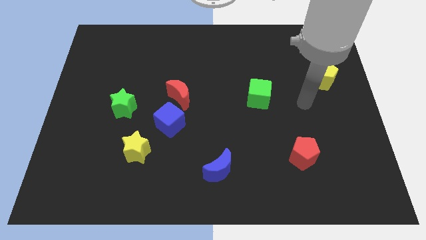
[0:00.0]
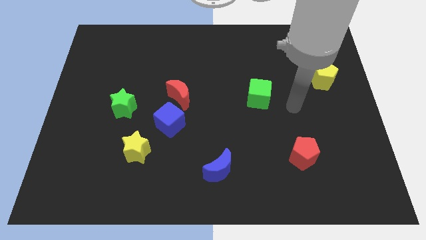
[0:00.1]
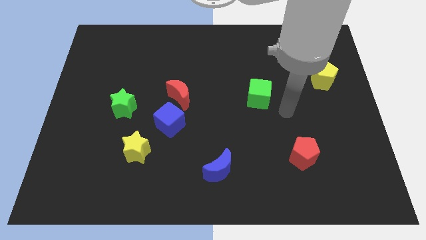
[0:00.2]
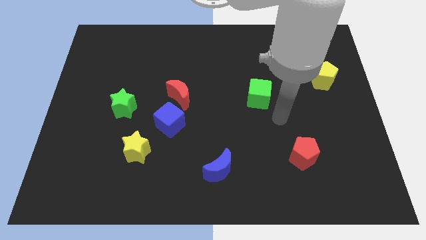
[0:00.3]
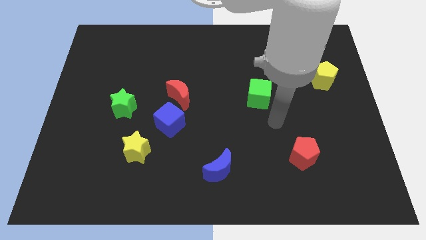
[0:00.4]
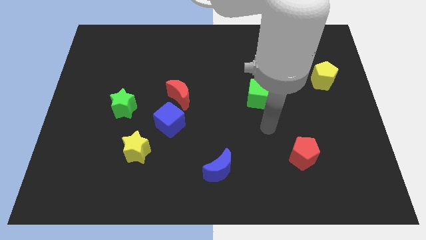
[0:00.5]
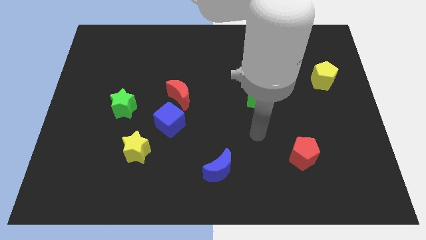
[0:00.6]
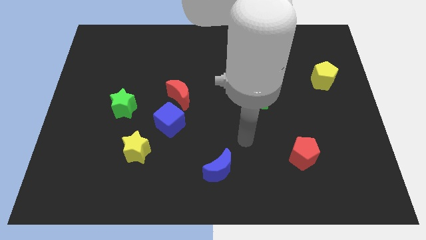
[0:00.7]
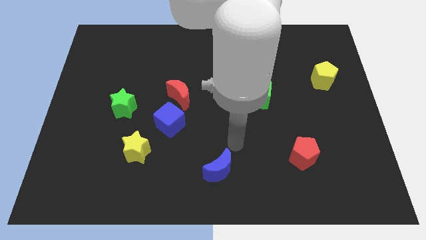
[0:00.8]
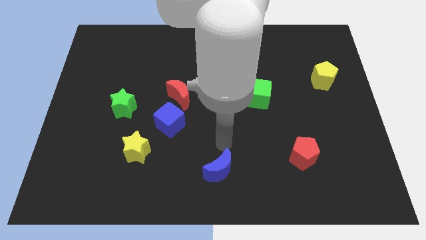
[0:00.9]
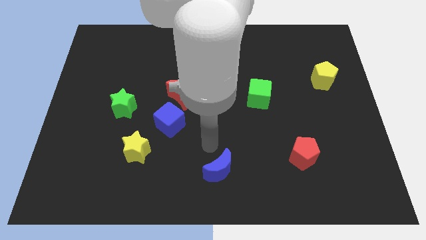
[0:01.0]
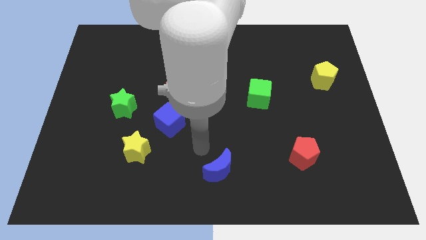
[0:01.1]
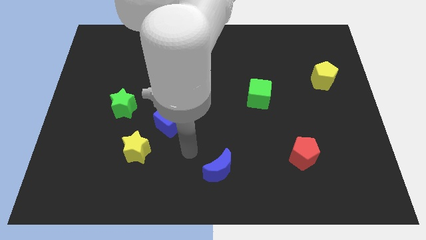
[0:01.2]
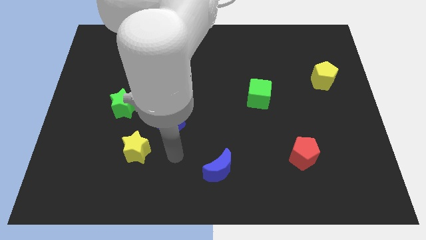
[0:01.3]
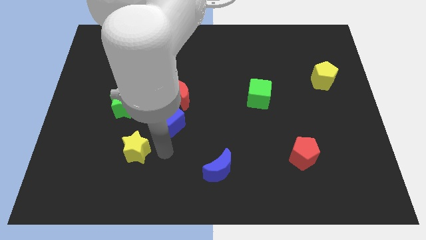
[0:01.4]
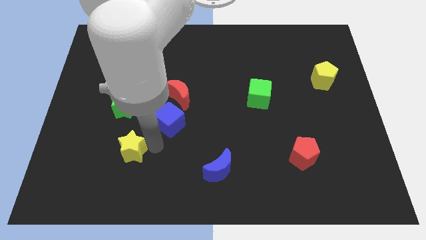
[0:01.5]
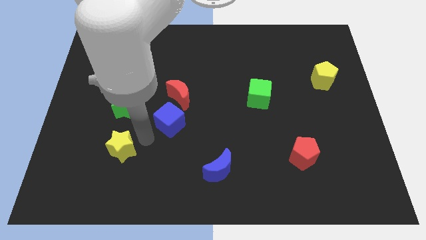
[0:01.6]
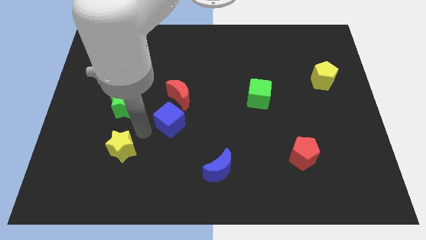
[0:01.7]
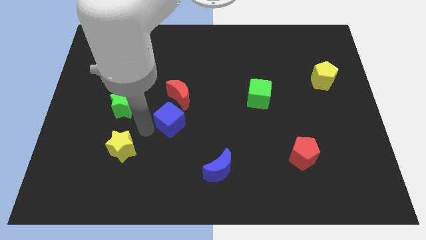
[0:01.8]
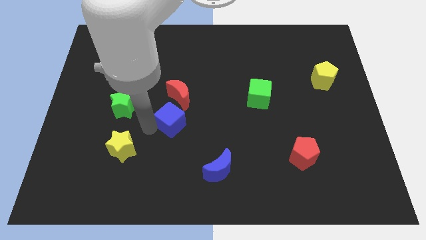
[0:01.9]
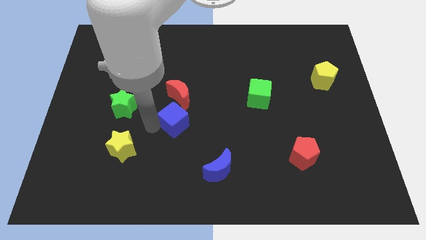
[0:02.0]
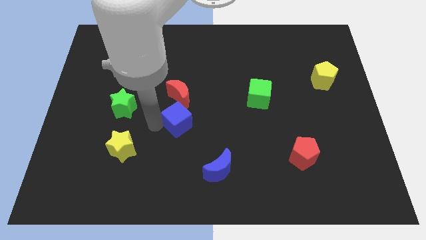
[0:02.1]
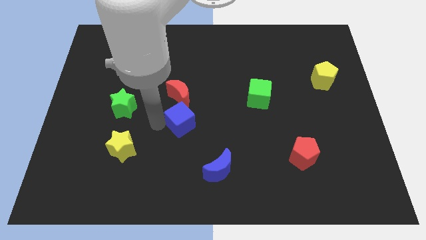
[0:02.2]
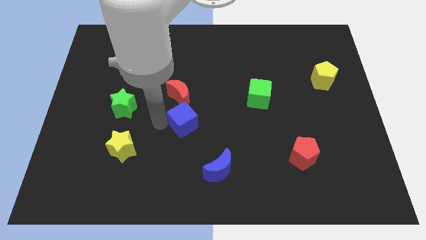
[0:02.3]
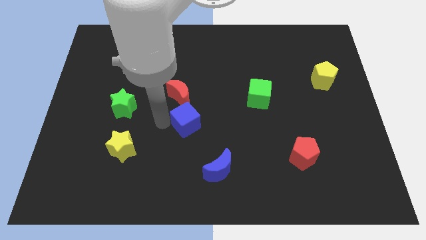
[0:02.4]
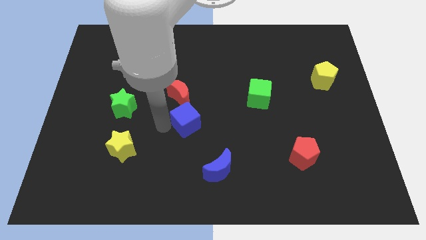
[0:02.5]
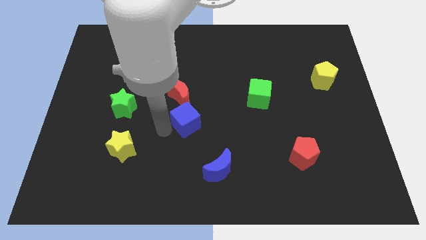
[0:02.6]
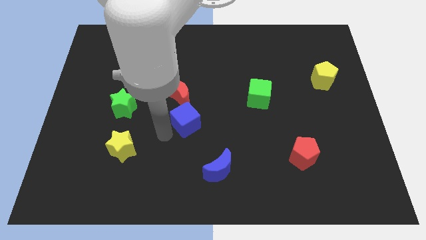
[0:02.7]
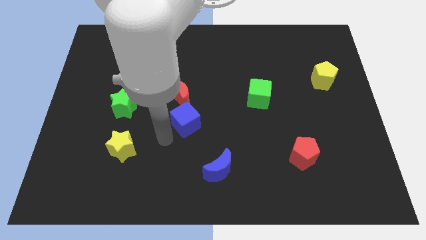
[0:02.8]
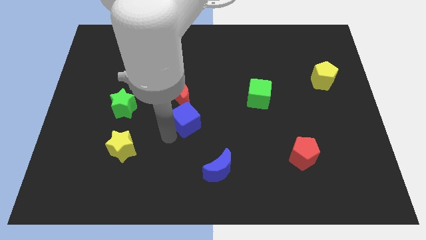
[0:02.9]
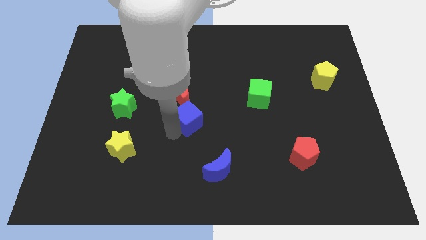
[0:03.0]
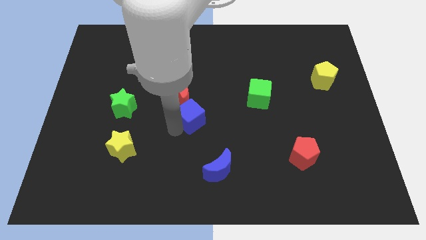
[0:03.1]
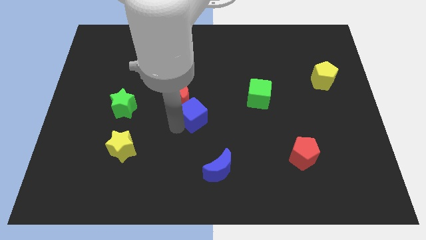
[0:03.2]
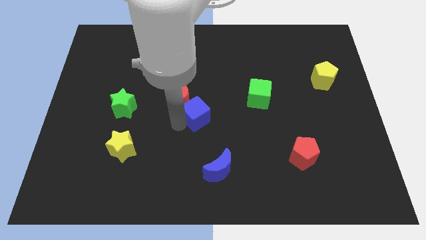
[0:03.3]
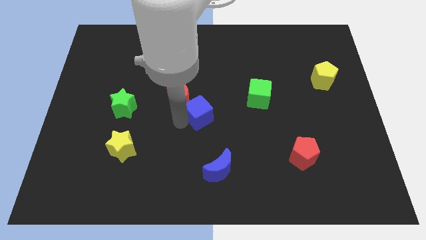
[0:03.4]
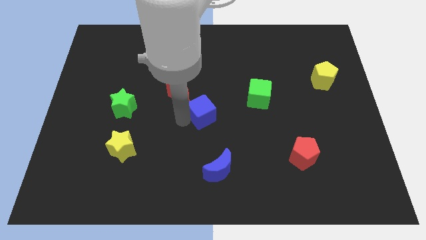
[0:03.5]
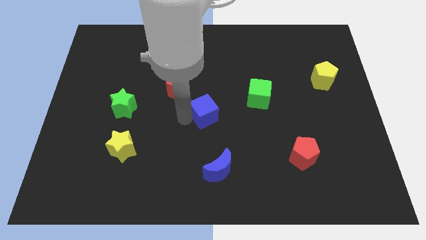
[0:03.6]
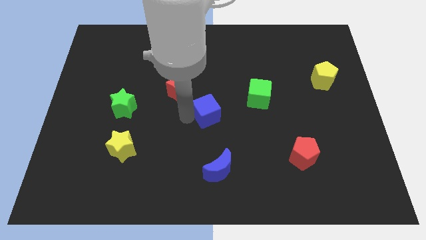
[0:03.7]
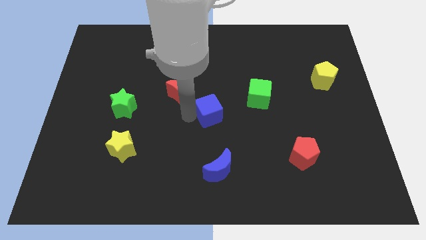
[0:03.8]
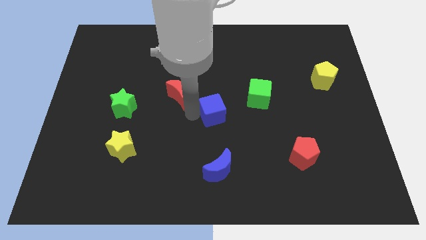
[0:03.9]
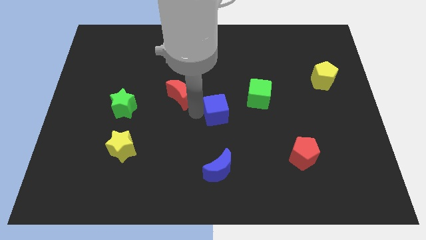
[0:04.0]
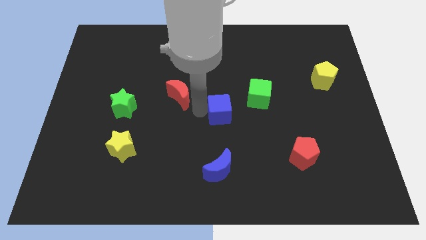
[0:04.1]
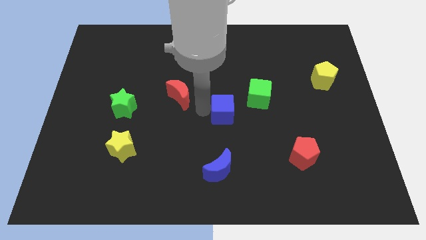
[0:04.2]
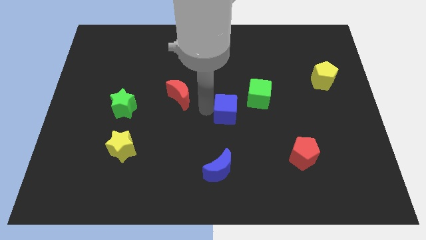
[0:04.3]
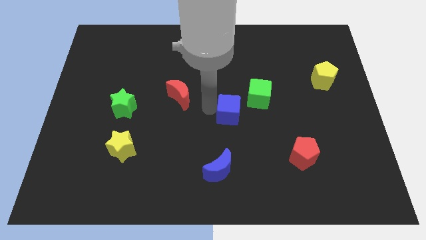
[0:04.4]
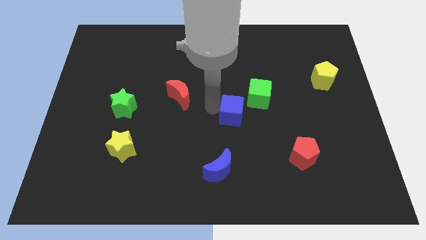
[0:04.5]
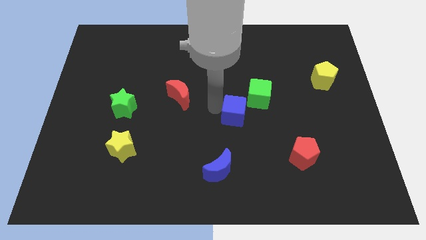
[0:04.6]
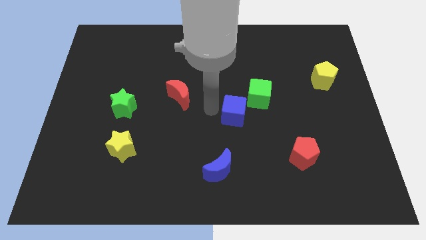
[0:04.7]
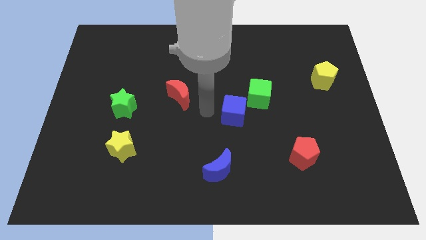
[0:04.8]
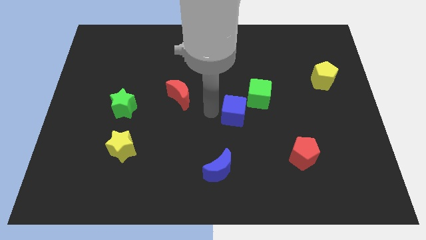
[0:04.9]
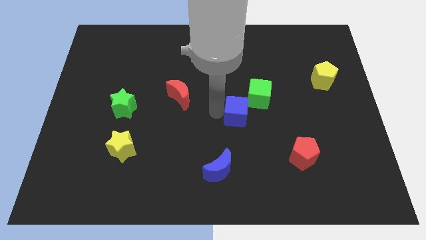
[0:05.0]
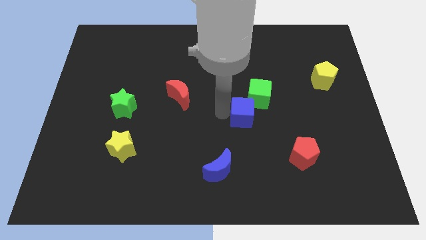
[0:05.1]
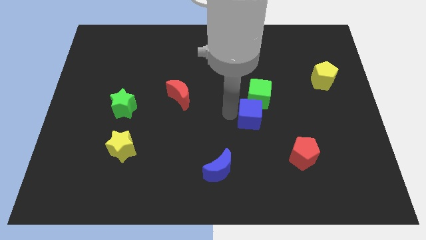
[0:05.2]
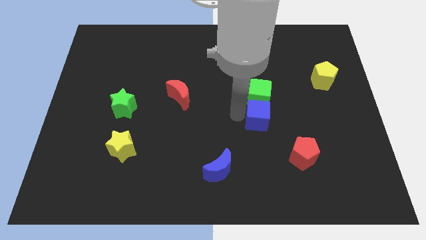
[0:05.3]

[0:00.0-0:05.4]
move the blue cube right

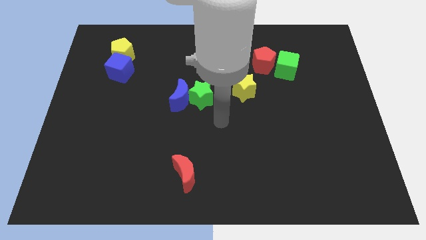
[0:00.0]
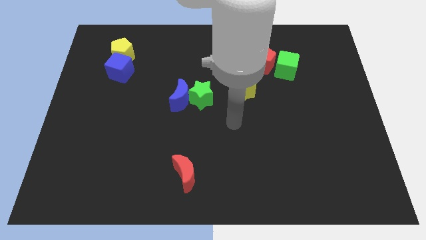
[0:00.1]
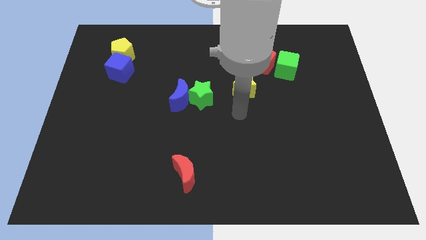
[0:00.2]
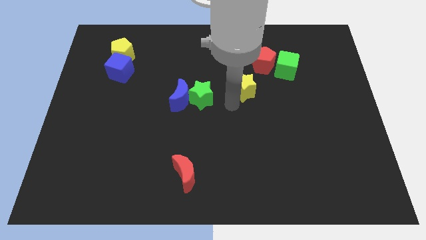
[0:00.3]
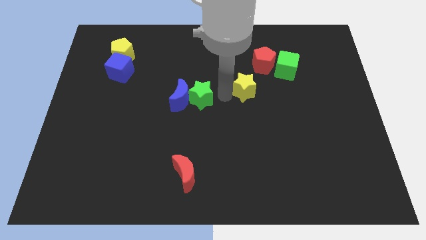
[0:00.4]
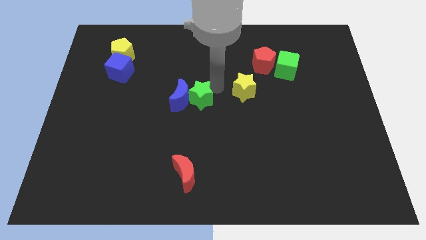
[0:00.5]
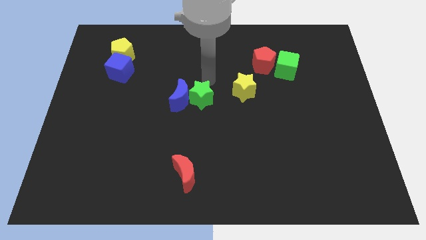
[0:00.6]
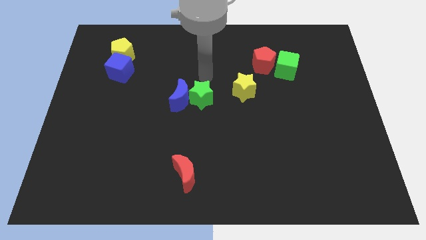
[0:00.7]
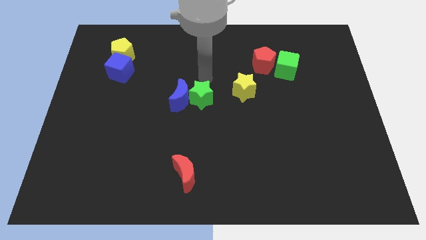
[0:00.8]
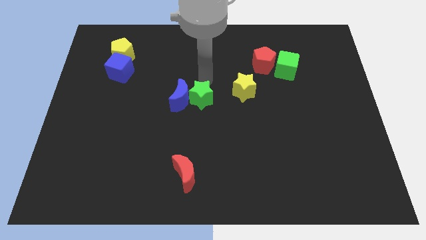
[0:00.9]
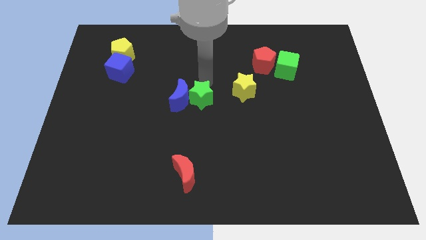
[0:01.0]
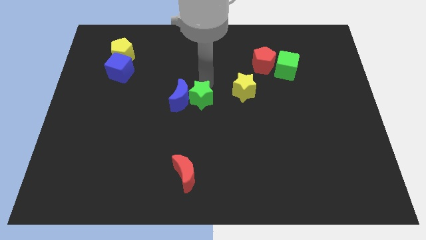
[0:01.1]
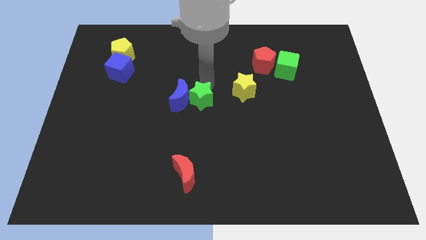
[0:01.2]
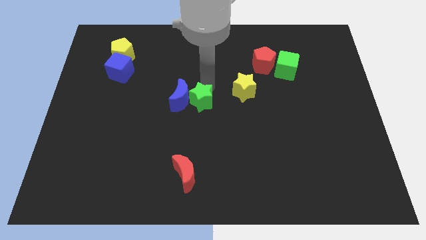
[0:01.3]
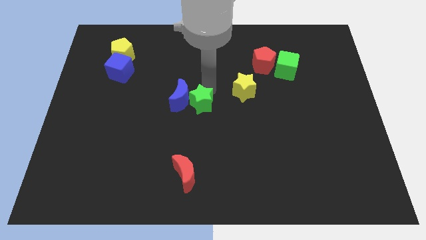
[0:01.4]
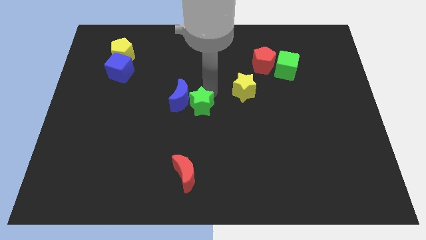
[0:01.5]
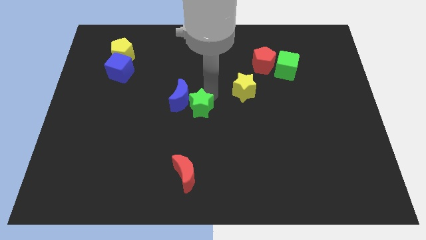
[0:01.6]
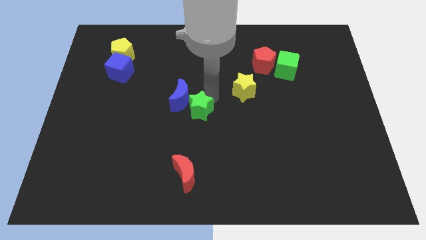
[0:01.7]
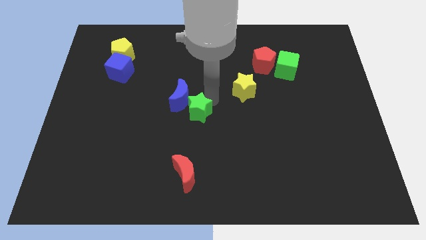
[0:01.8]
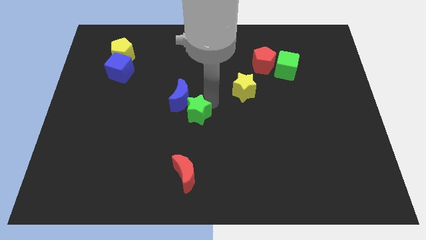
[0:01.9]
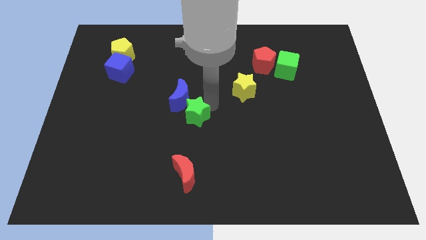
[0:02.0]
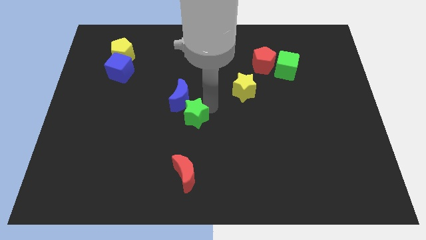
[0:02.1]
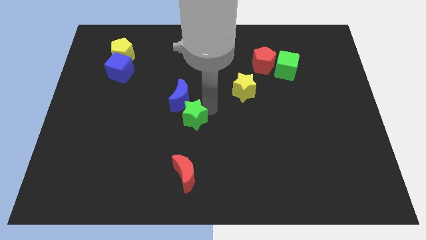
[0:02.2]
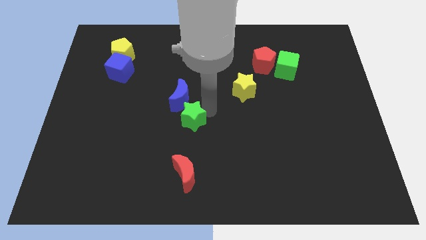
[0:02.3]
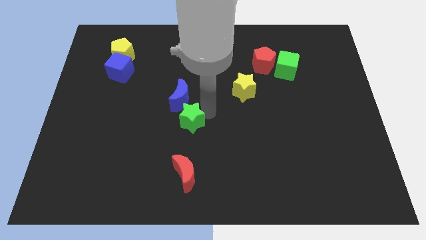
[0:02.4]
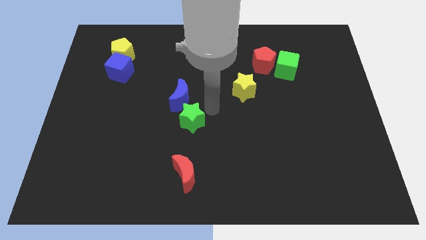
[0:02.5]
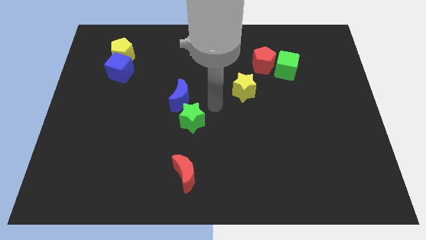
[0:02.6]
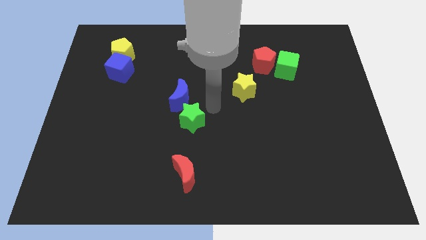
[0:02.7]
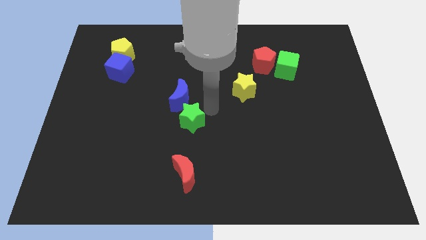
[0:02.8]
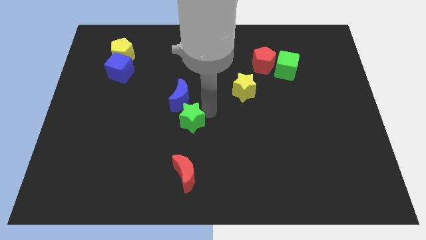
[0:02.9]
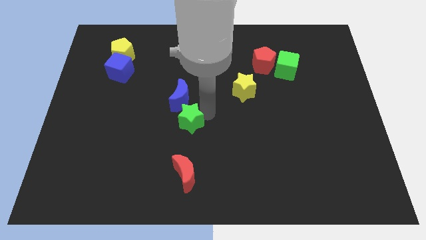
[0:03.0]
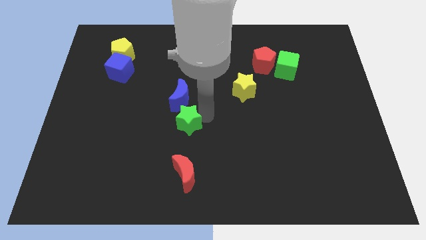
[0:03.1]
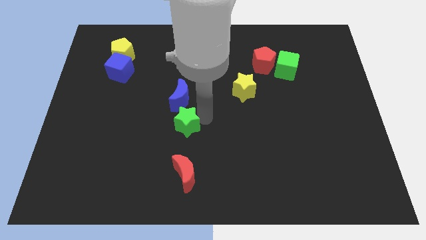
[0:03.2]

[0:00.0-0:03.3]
slightly slide the green star downwards and left
